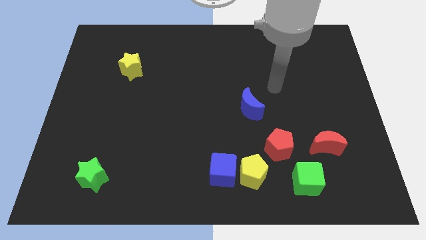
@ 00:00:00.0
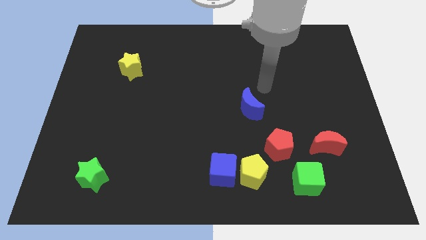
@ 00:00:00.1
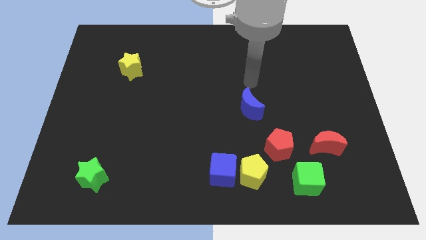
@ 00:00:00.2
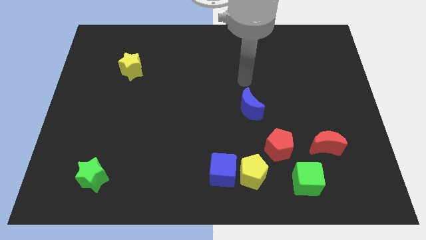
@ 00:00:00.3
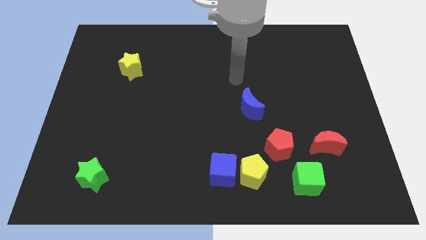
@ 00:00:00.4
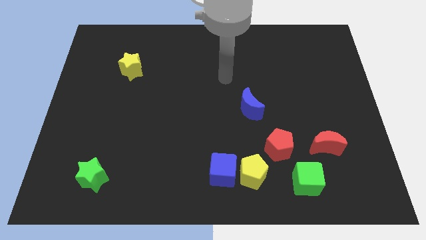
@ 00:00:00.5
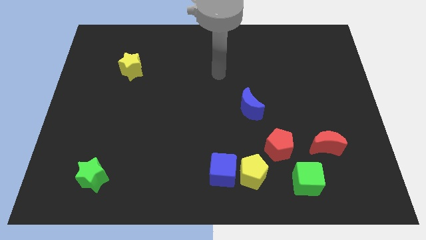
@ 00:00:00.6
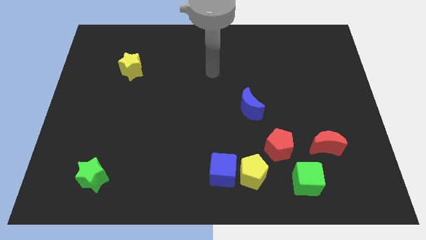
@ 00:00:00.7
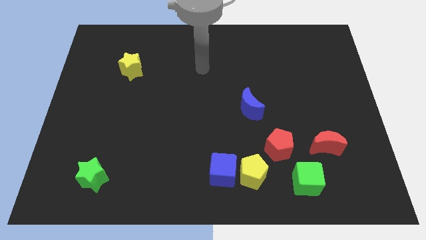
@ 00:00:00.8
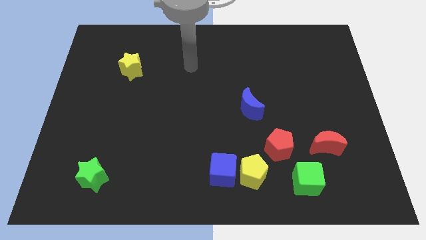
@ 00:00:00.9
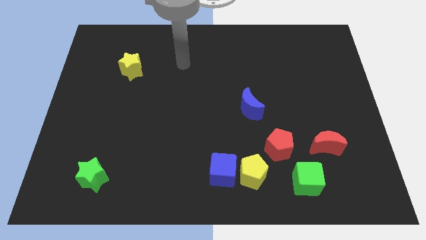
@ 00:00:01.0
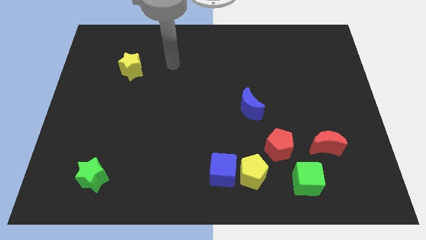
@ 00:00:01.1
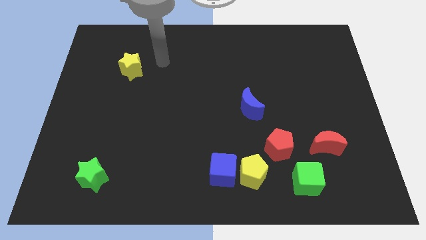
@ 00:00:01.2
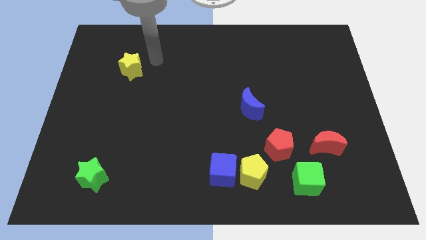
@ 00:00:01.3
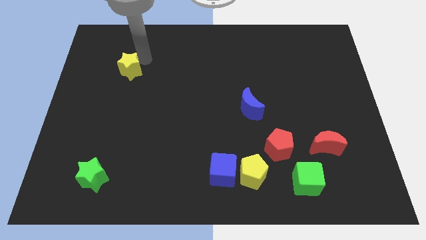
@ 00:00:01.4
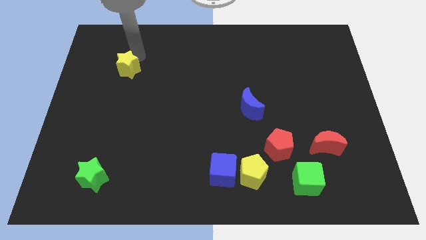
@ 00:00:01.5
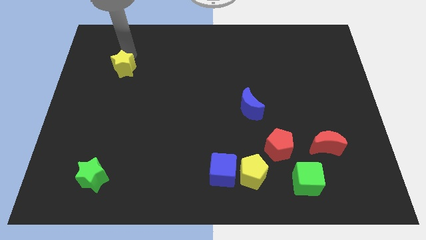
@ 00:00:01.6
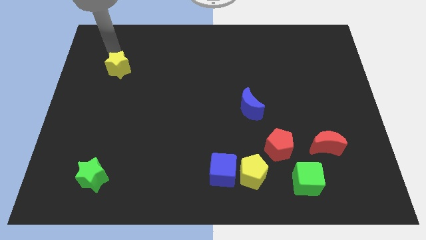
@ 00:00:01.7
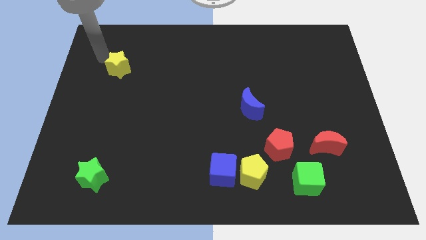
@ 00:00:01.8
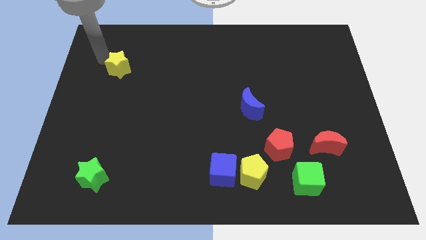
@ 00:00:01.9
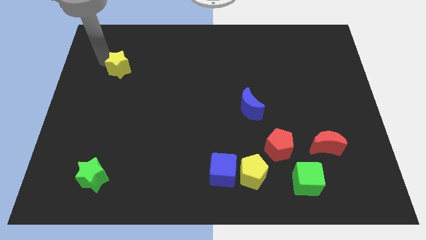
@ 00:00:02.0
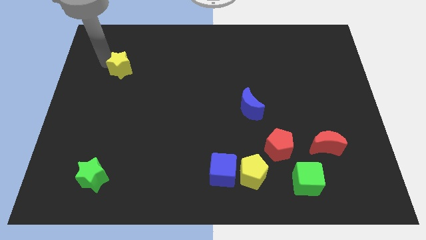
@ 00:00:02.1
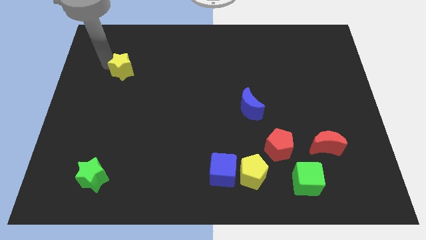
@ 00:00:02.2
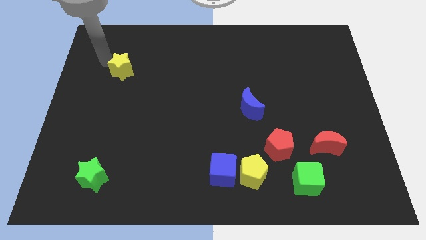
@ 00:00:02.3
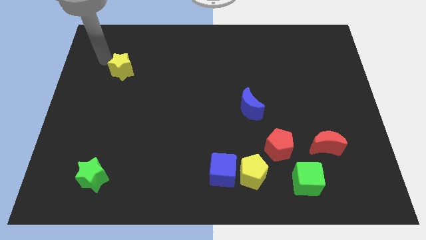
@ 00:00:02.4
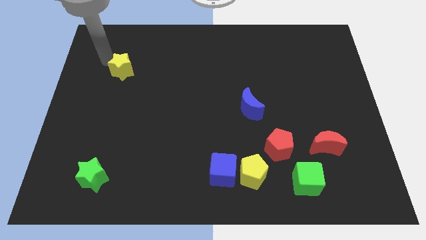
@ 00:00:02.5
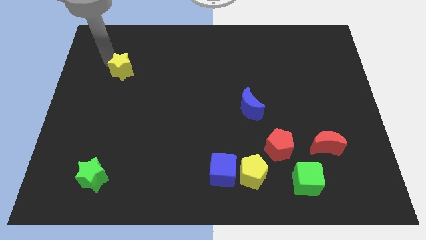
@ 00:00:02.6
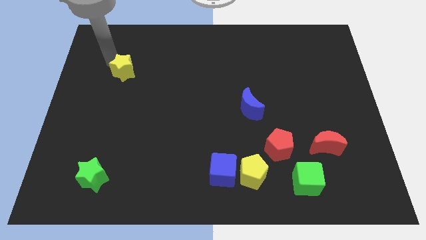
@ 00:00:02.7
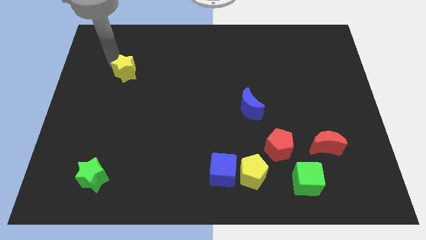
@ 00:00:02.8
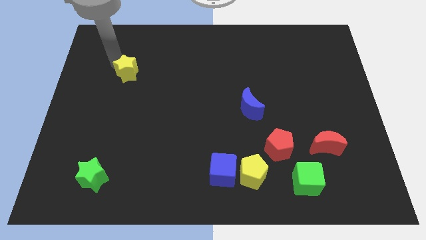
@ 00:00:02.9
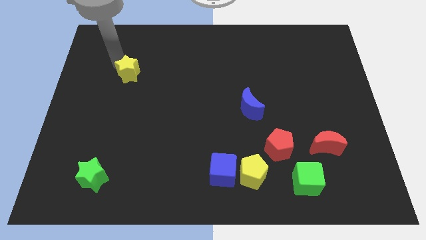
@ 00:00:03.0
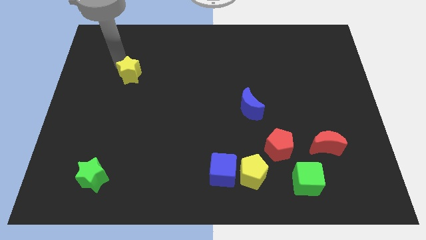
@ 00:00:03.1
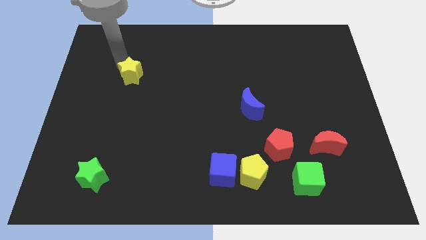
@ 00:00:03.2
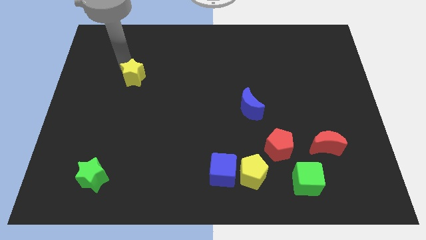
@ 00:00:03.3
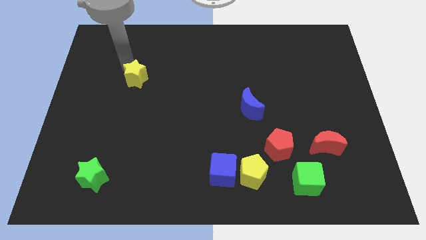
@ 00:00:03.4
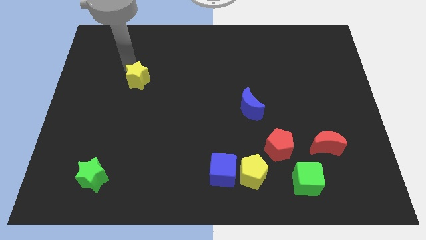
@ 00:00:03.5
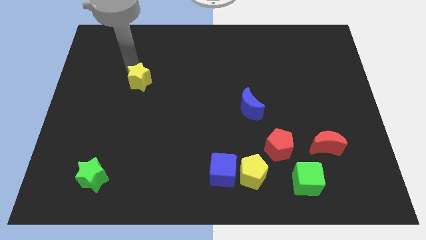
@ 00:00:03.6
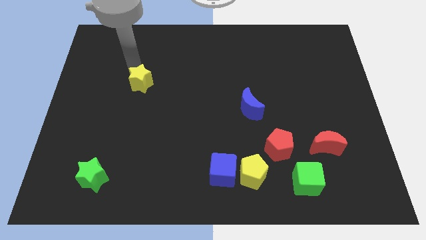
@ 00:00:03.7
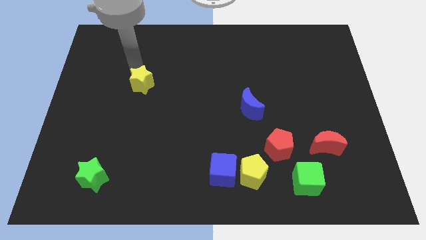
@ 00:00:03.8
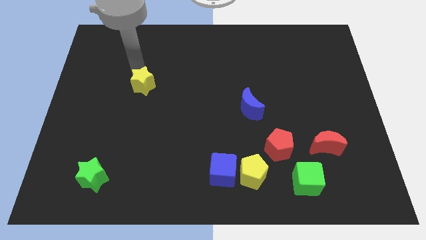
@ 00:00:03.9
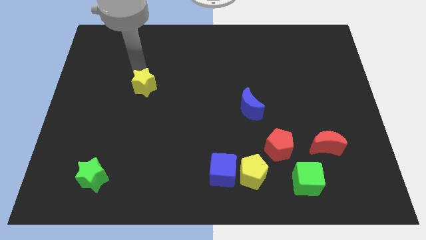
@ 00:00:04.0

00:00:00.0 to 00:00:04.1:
push the yellow star somewhat downwards and to the right

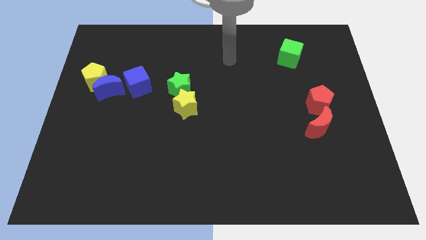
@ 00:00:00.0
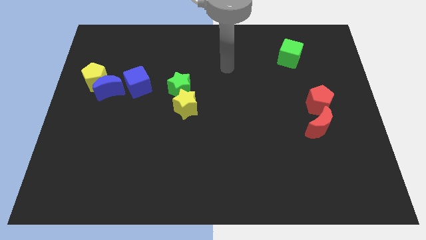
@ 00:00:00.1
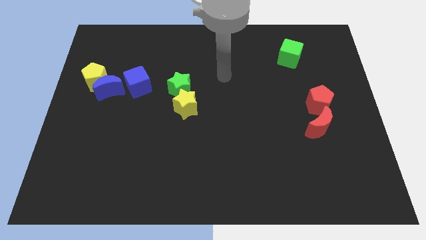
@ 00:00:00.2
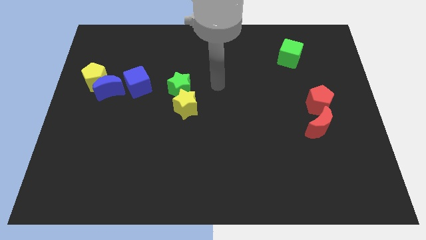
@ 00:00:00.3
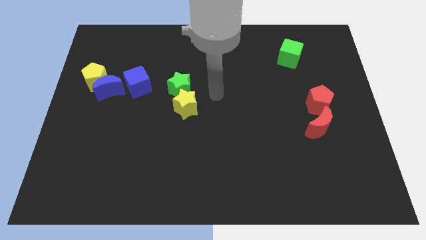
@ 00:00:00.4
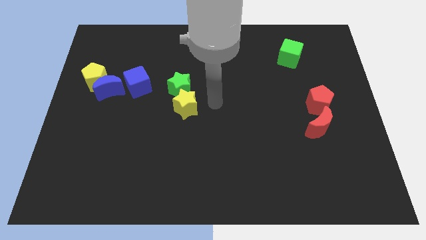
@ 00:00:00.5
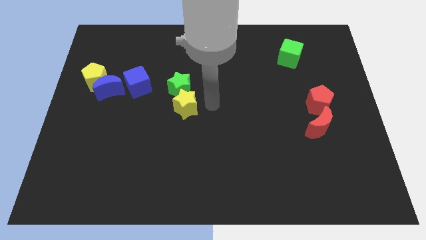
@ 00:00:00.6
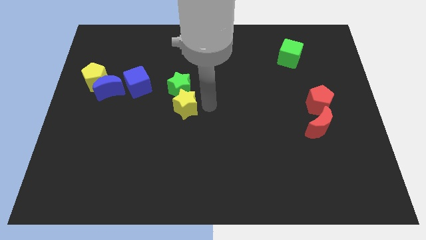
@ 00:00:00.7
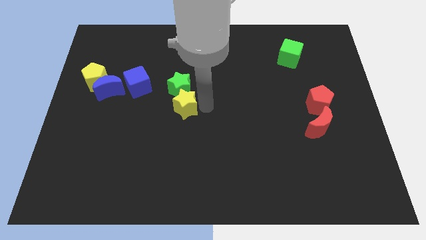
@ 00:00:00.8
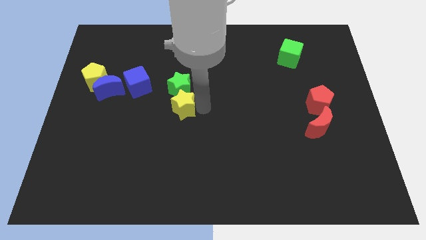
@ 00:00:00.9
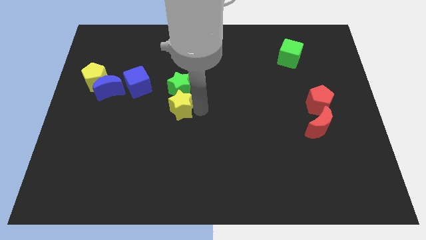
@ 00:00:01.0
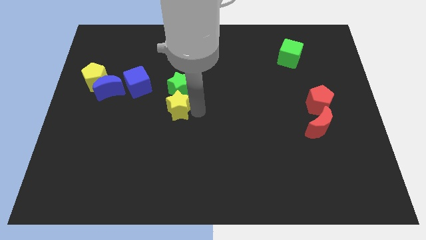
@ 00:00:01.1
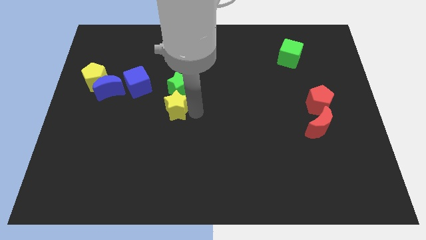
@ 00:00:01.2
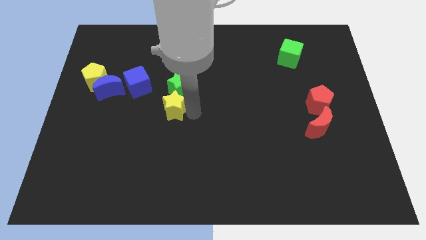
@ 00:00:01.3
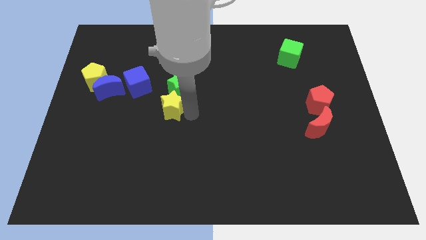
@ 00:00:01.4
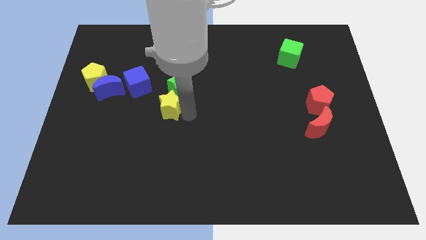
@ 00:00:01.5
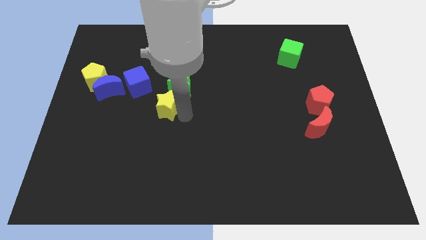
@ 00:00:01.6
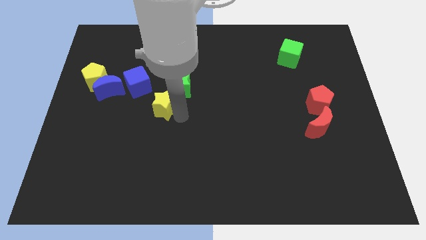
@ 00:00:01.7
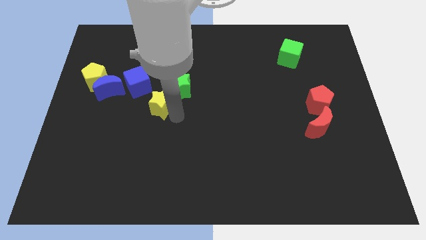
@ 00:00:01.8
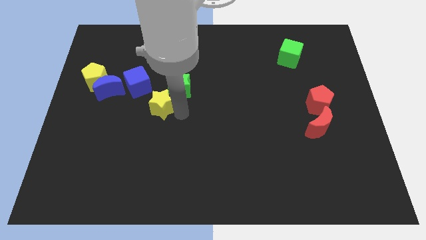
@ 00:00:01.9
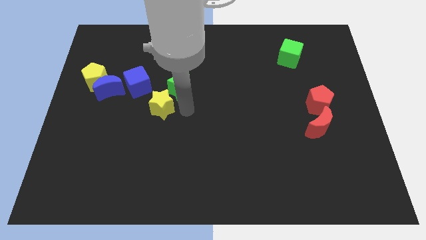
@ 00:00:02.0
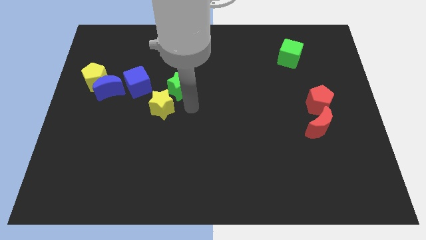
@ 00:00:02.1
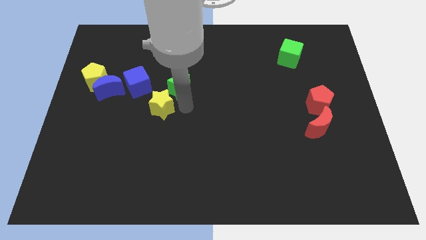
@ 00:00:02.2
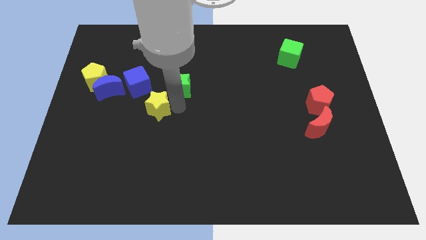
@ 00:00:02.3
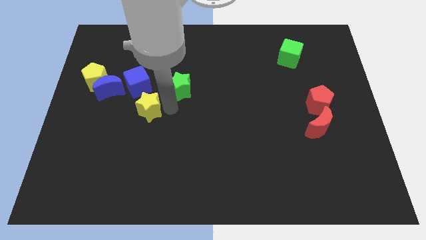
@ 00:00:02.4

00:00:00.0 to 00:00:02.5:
move the yellow star to the left a little

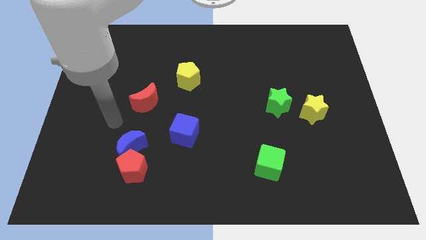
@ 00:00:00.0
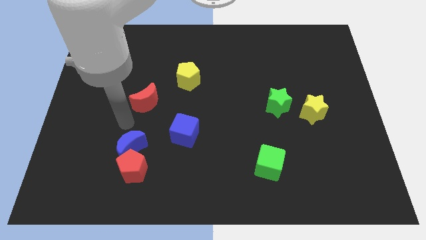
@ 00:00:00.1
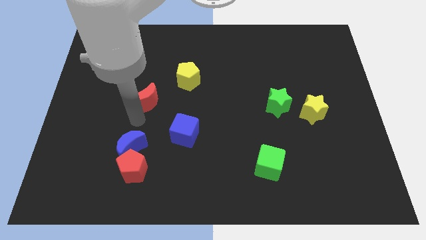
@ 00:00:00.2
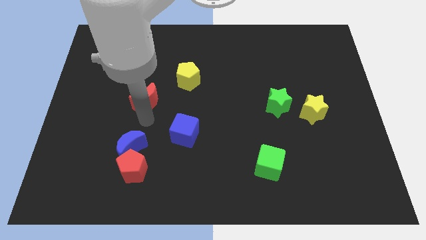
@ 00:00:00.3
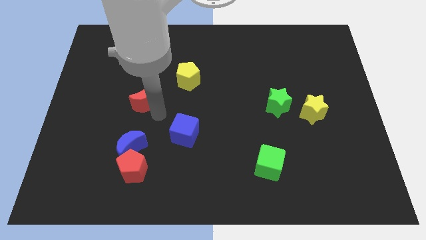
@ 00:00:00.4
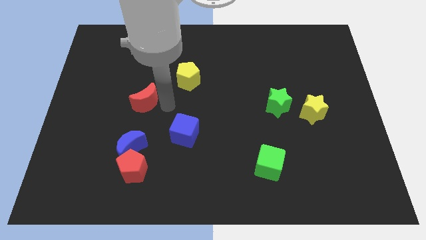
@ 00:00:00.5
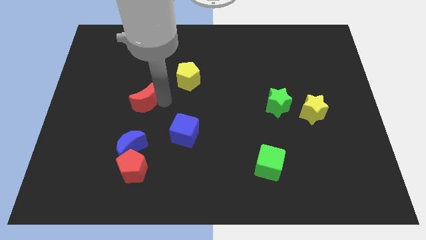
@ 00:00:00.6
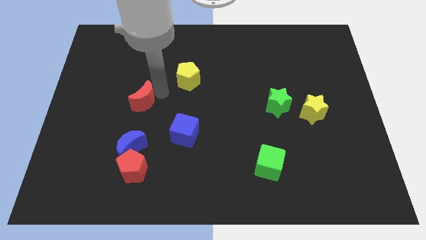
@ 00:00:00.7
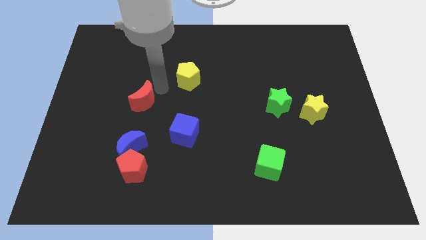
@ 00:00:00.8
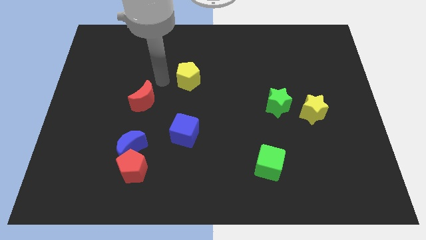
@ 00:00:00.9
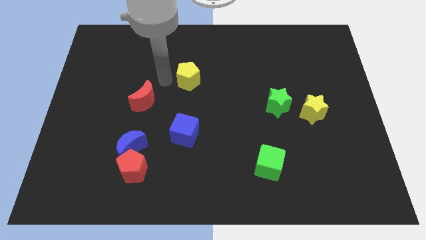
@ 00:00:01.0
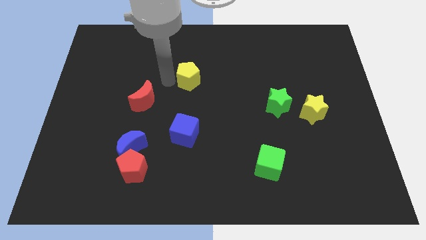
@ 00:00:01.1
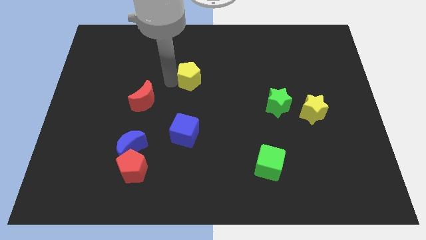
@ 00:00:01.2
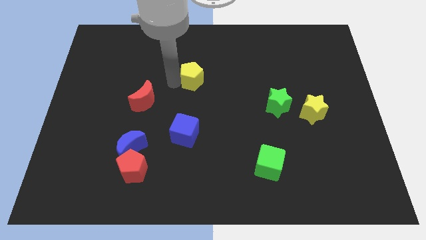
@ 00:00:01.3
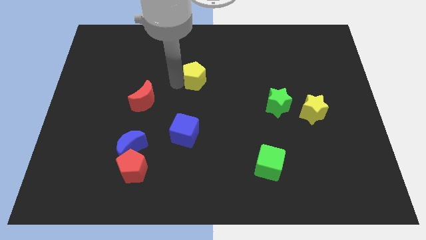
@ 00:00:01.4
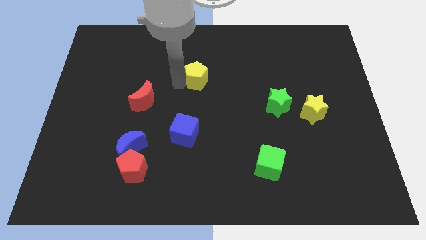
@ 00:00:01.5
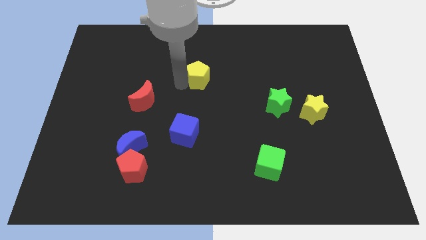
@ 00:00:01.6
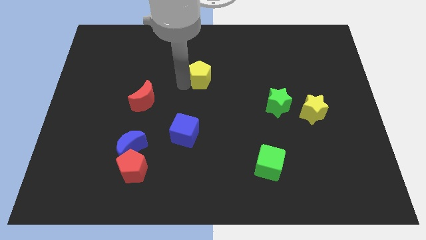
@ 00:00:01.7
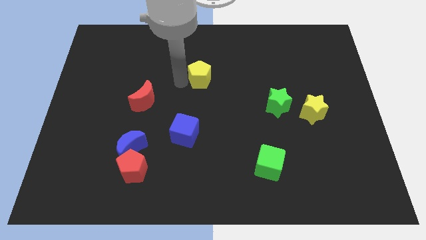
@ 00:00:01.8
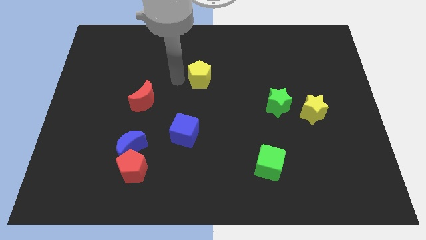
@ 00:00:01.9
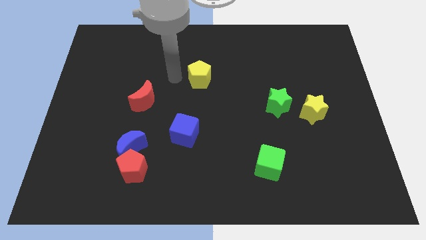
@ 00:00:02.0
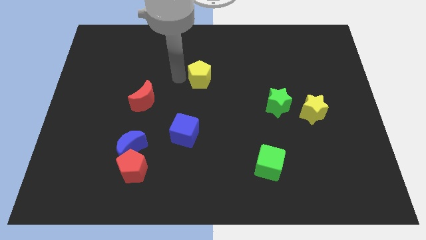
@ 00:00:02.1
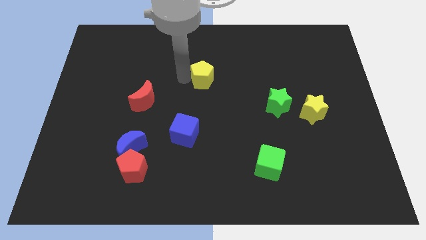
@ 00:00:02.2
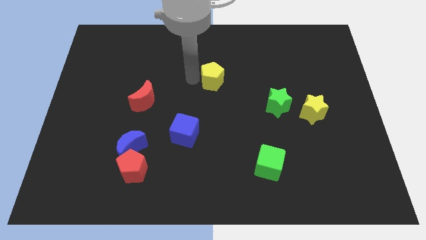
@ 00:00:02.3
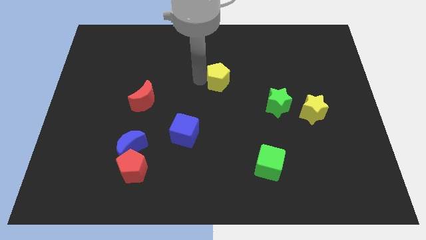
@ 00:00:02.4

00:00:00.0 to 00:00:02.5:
slightly push the yellow pentagon right
